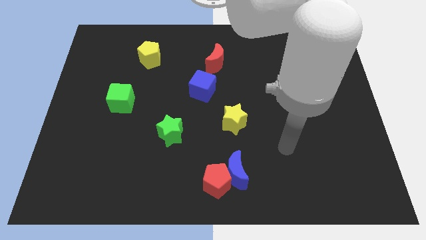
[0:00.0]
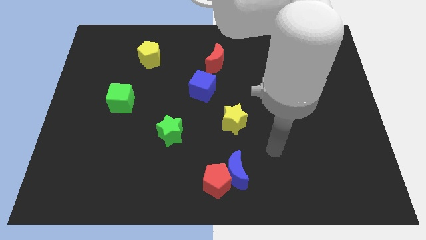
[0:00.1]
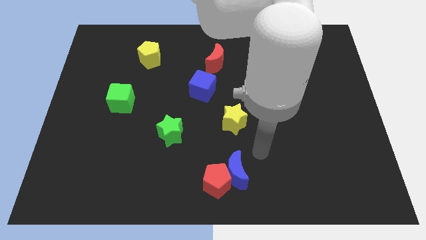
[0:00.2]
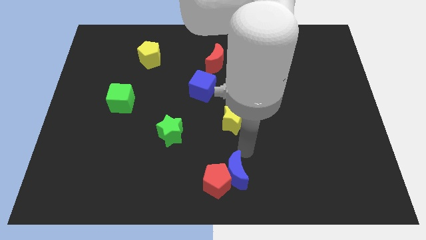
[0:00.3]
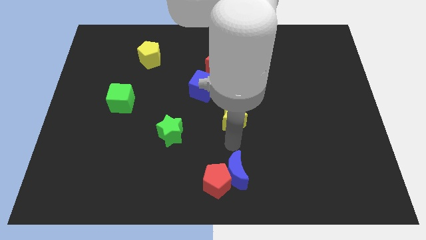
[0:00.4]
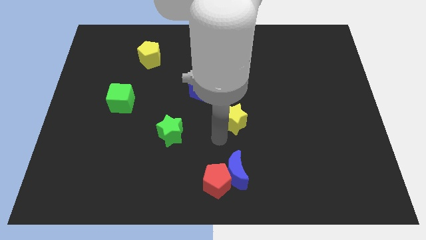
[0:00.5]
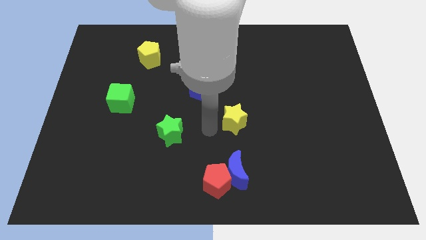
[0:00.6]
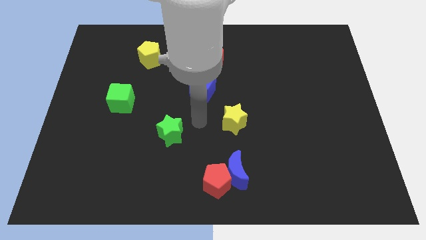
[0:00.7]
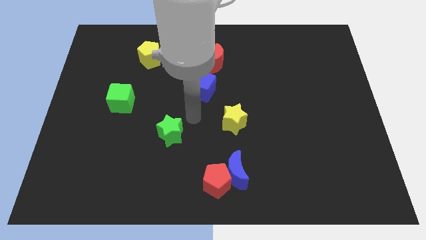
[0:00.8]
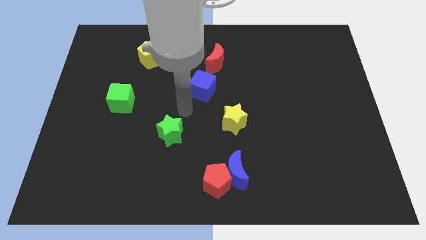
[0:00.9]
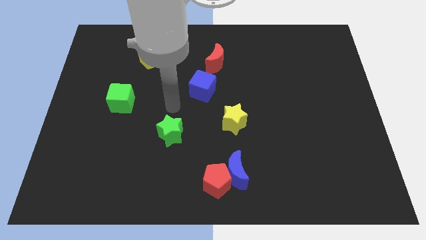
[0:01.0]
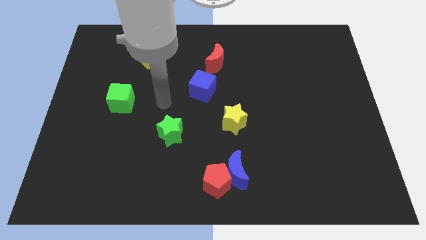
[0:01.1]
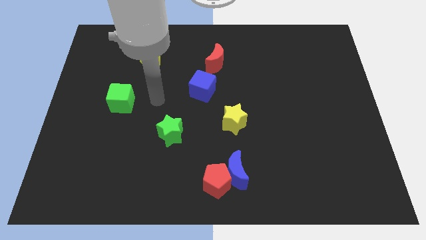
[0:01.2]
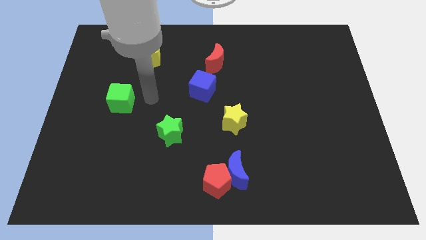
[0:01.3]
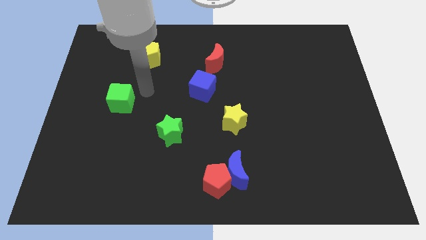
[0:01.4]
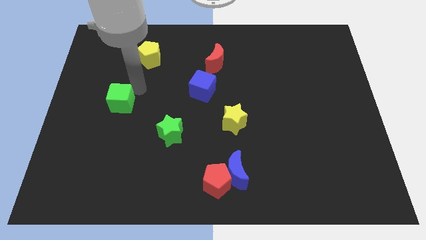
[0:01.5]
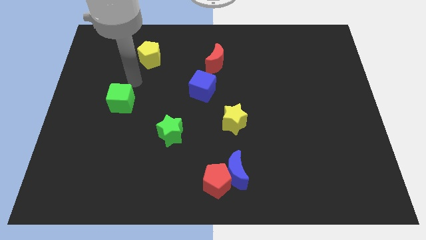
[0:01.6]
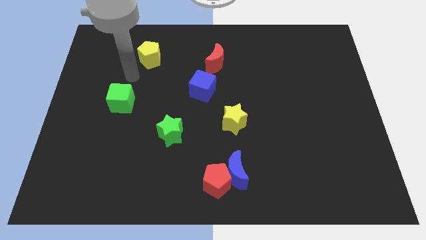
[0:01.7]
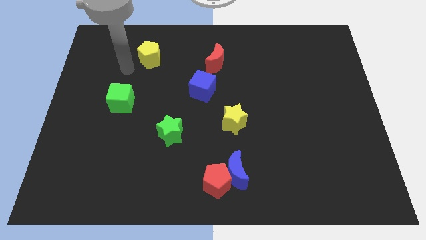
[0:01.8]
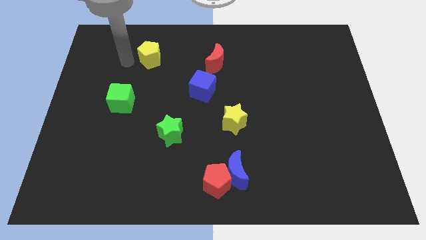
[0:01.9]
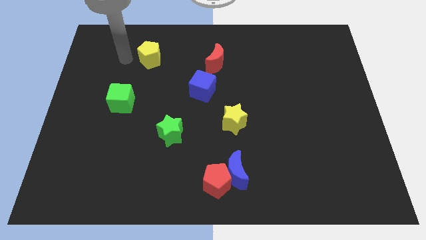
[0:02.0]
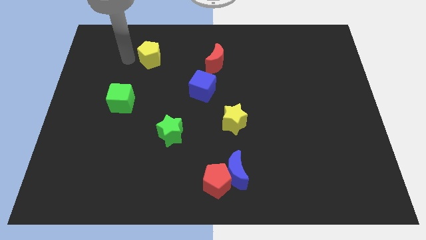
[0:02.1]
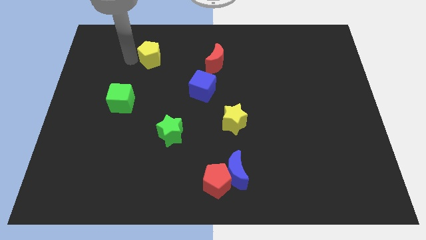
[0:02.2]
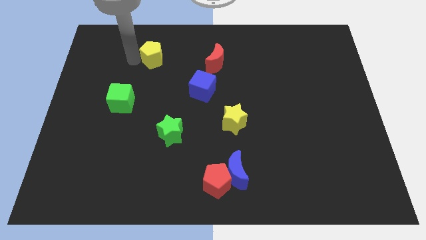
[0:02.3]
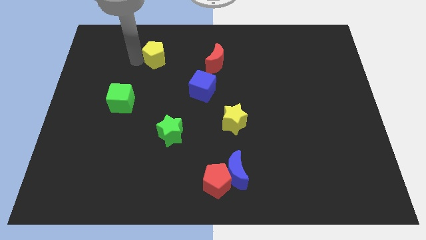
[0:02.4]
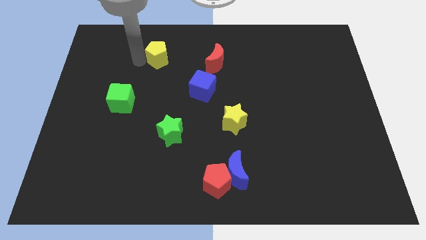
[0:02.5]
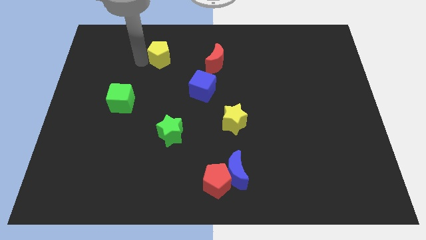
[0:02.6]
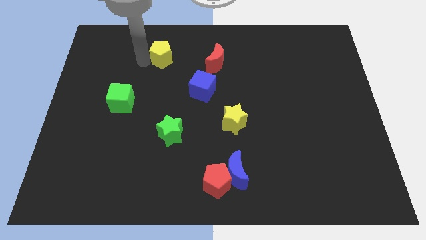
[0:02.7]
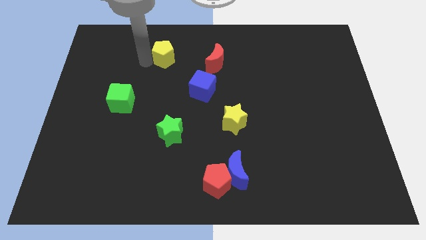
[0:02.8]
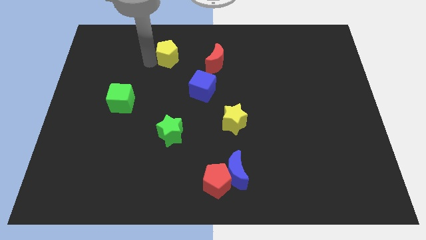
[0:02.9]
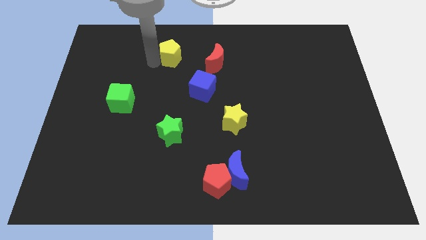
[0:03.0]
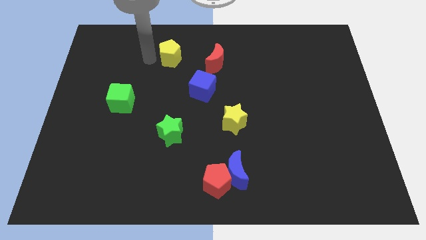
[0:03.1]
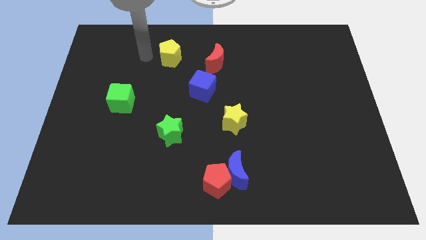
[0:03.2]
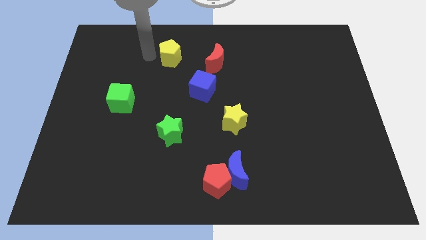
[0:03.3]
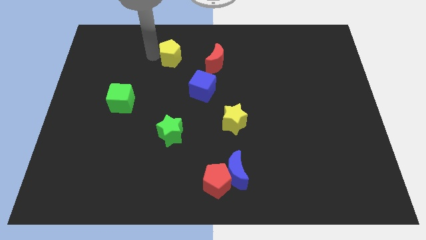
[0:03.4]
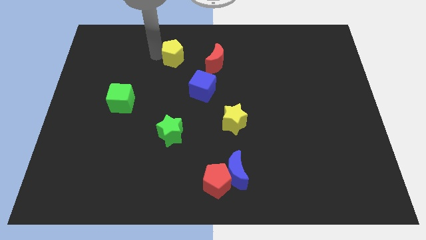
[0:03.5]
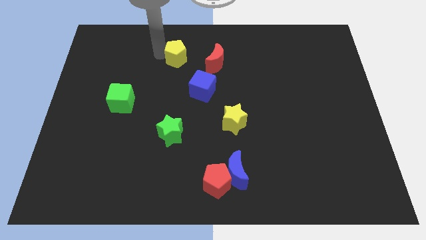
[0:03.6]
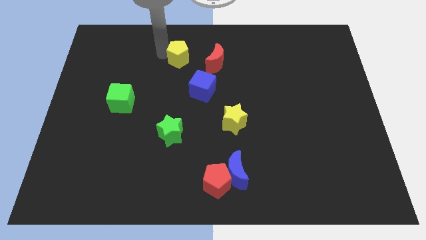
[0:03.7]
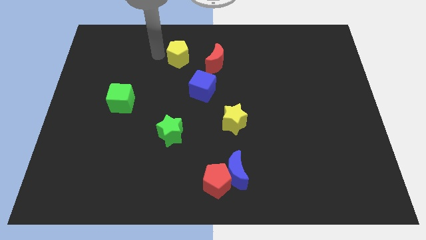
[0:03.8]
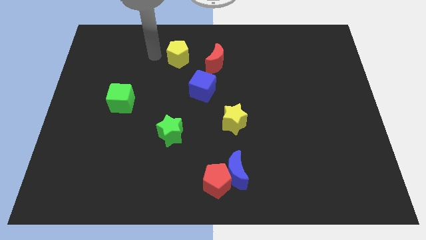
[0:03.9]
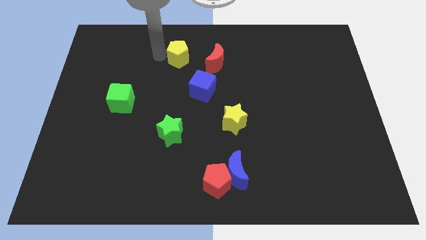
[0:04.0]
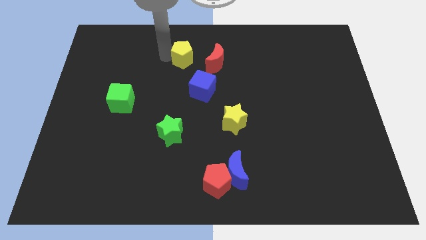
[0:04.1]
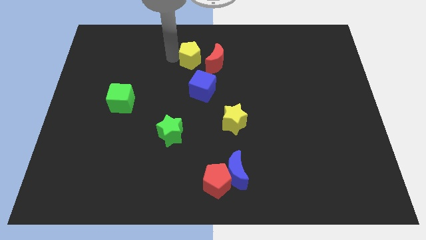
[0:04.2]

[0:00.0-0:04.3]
move the yellow pentagon to the top of the blue cube

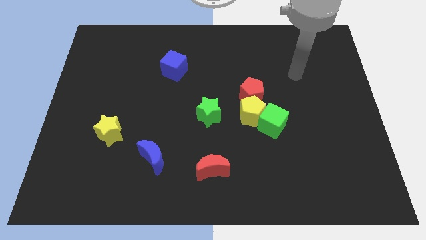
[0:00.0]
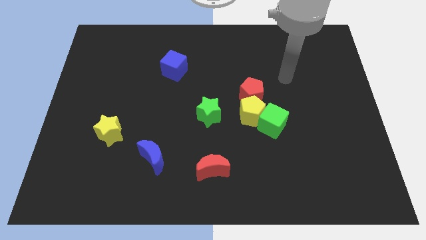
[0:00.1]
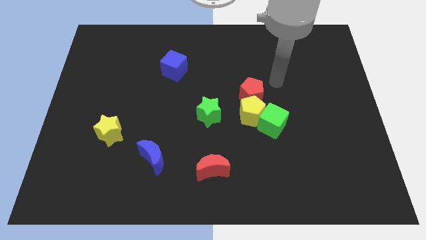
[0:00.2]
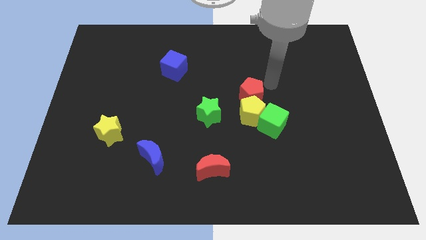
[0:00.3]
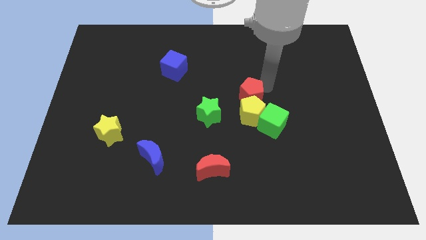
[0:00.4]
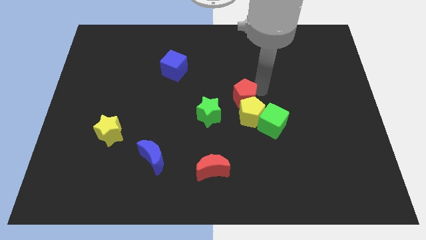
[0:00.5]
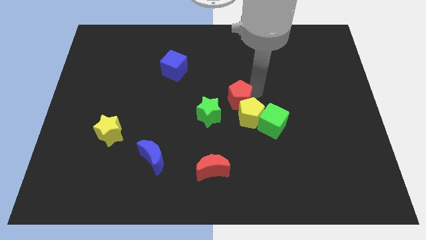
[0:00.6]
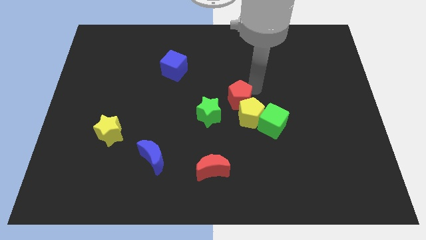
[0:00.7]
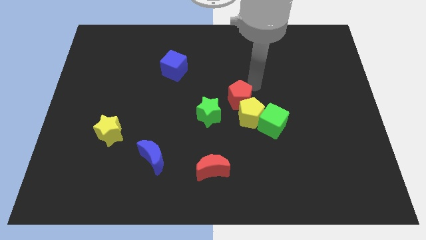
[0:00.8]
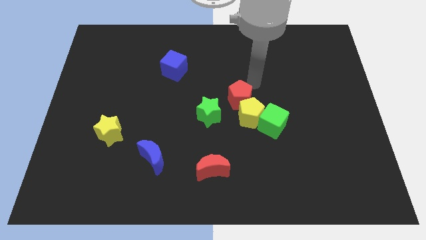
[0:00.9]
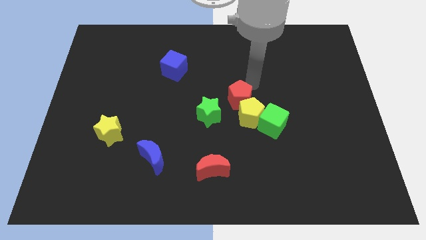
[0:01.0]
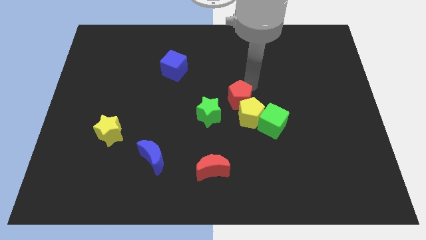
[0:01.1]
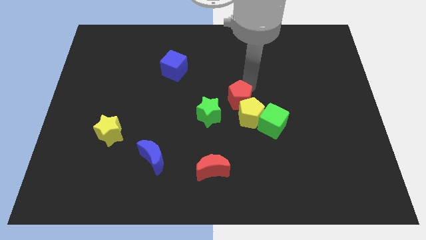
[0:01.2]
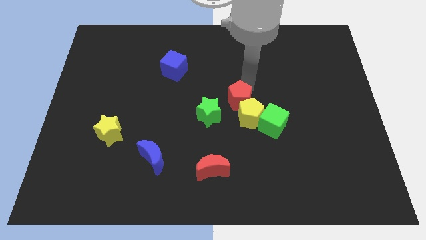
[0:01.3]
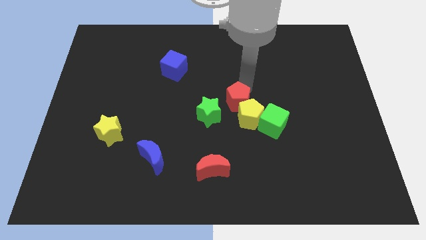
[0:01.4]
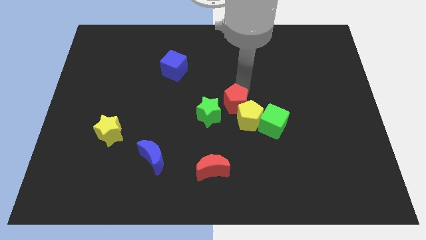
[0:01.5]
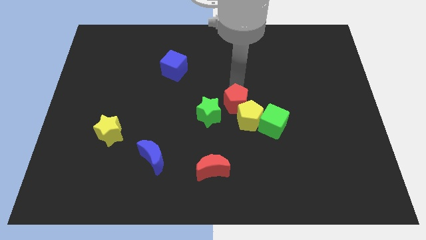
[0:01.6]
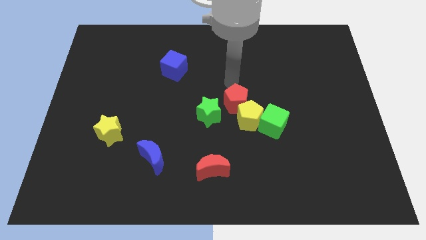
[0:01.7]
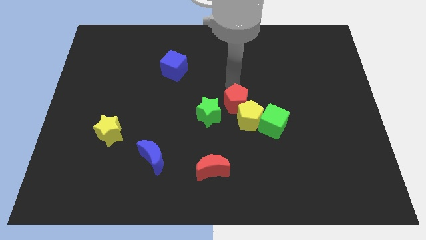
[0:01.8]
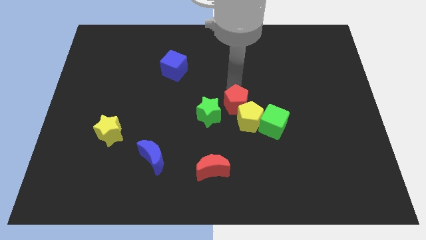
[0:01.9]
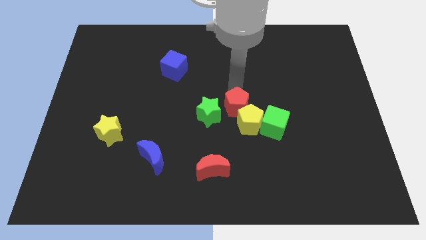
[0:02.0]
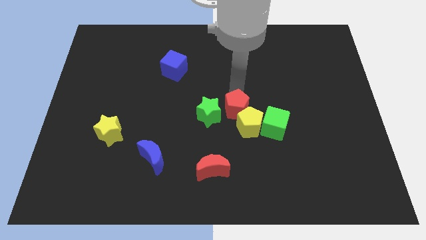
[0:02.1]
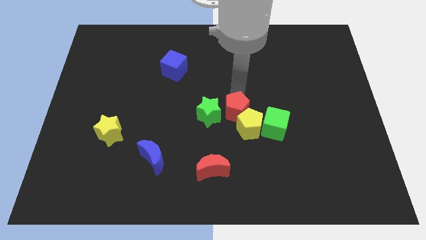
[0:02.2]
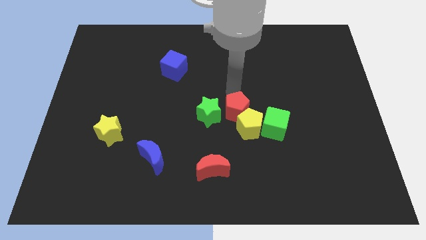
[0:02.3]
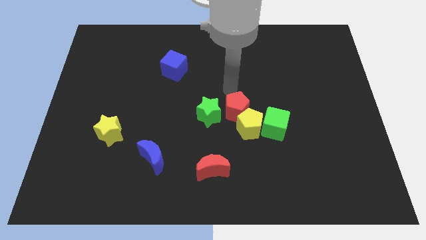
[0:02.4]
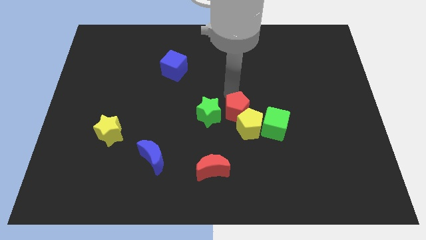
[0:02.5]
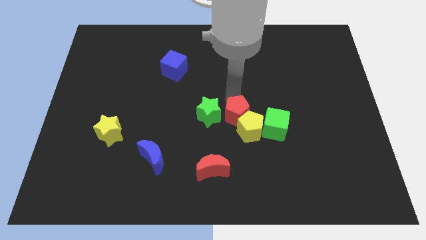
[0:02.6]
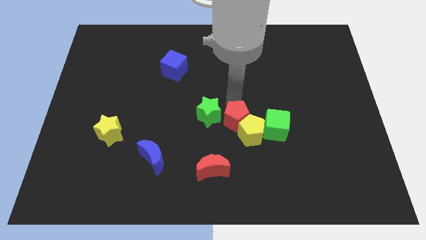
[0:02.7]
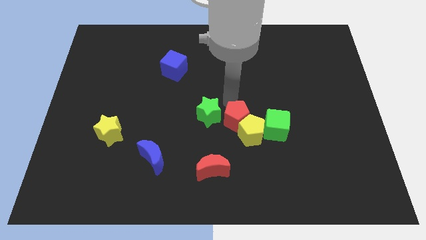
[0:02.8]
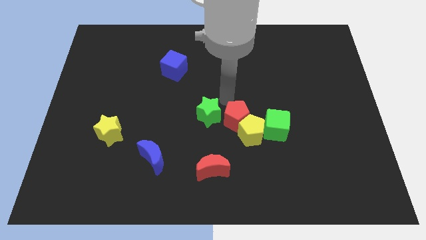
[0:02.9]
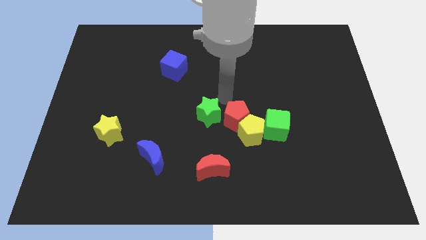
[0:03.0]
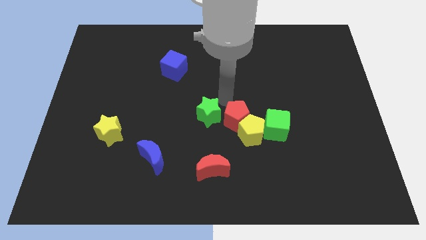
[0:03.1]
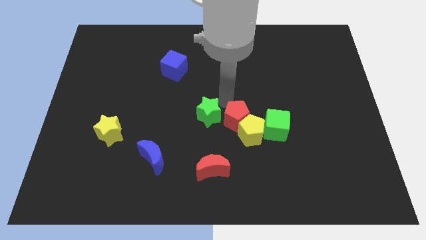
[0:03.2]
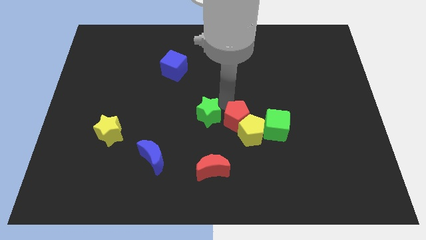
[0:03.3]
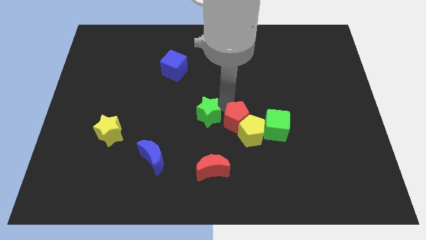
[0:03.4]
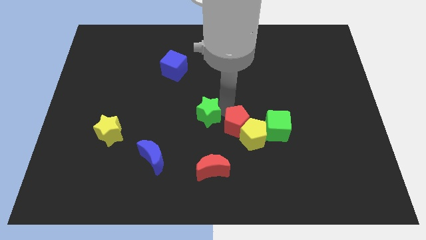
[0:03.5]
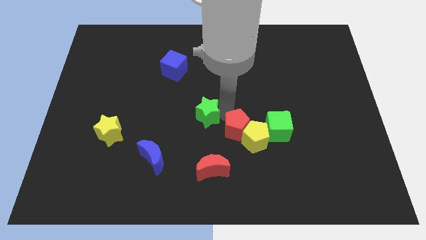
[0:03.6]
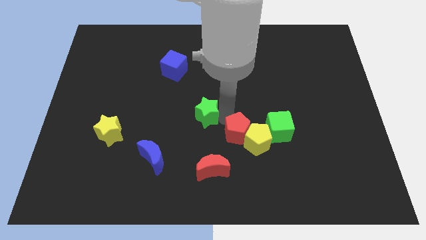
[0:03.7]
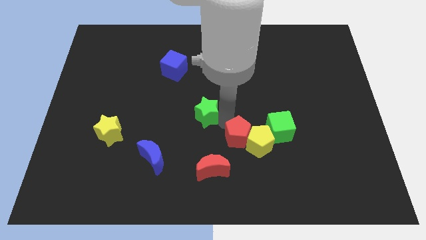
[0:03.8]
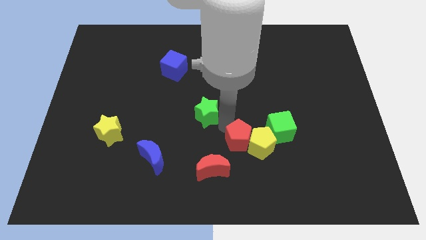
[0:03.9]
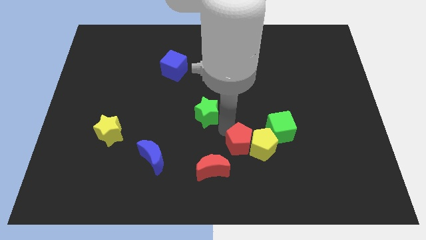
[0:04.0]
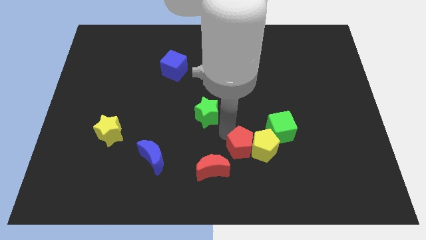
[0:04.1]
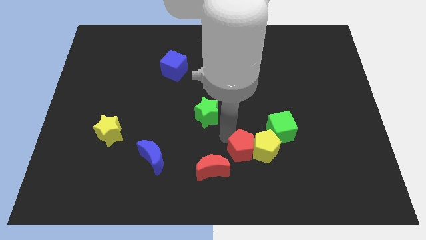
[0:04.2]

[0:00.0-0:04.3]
put the red pentagon to the right side of the red moon
